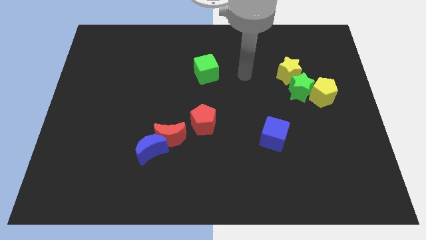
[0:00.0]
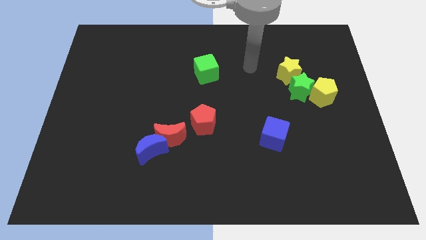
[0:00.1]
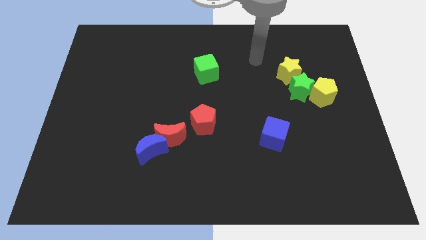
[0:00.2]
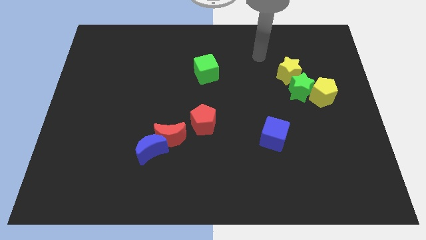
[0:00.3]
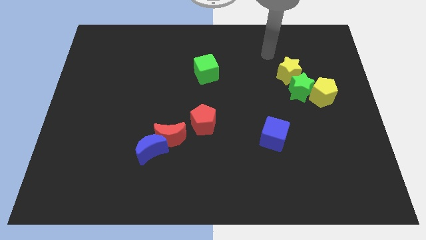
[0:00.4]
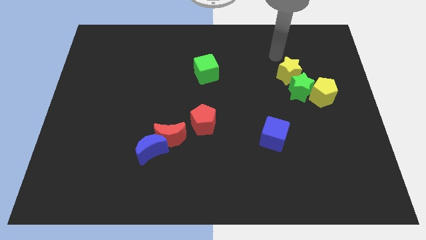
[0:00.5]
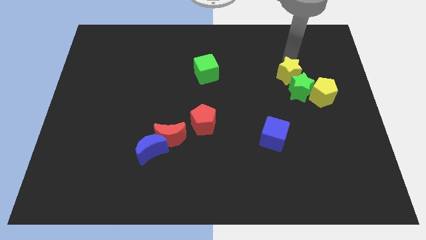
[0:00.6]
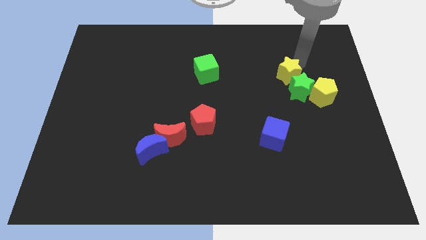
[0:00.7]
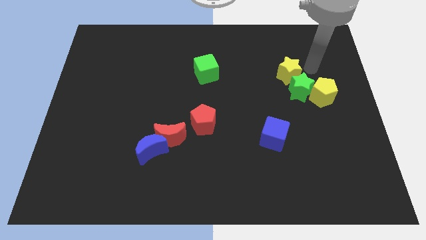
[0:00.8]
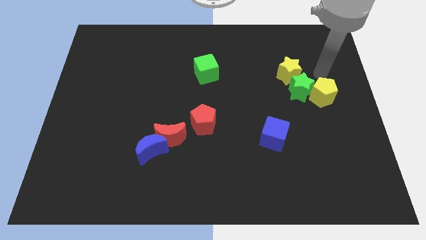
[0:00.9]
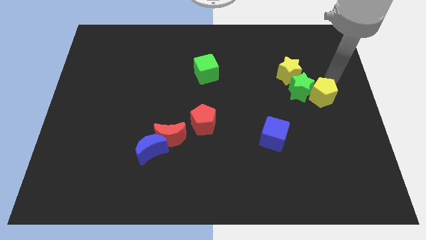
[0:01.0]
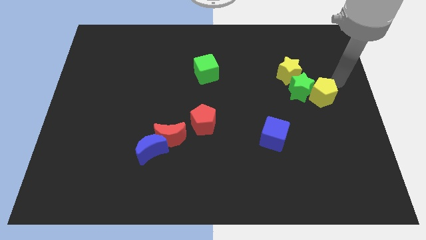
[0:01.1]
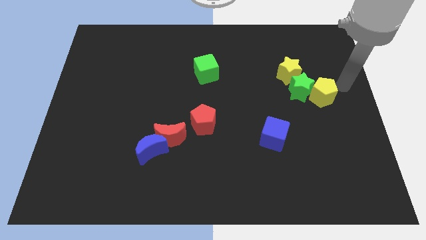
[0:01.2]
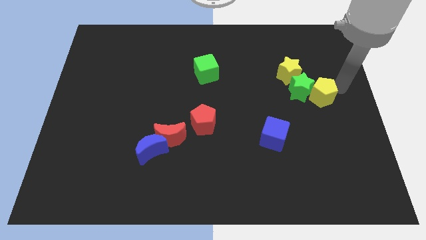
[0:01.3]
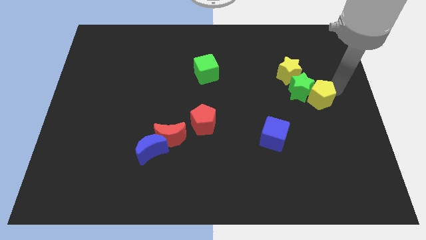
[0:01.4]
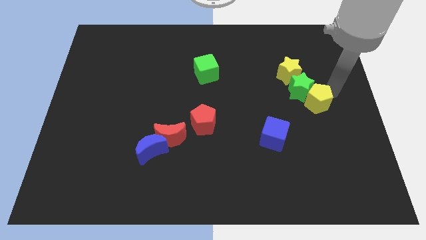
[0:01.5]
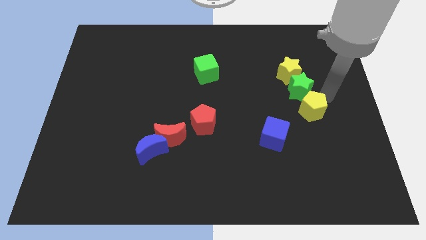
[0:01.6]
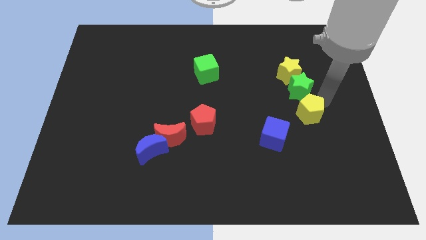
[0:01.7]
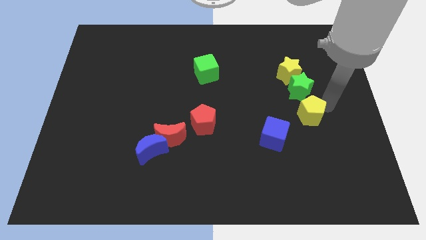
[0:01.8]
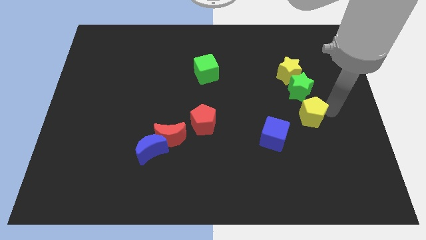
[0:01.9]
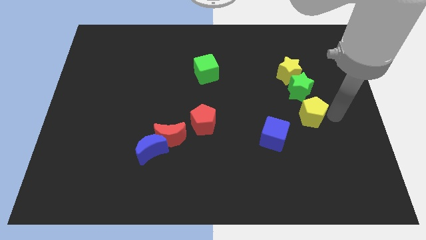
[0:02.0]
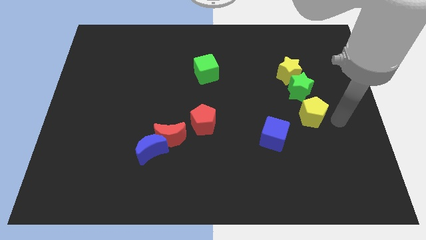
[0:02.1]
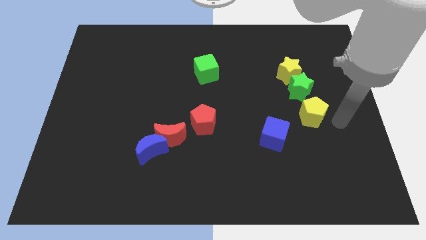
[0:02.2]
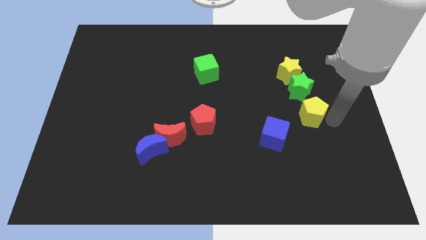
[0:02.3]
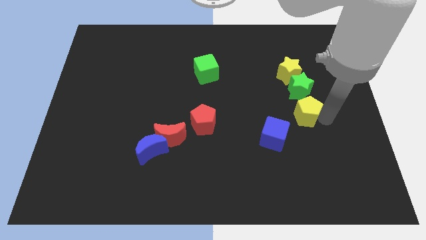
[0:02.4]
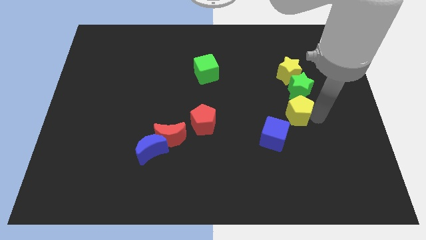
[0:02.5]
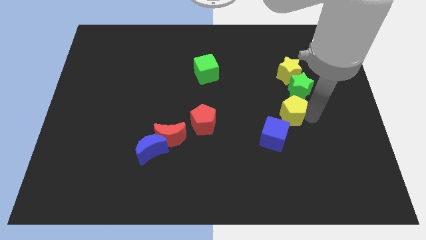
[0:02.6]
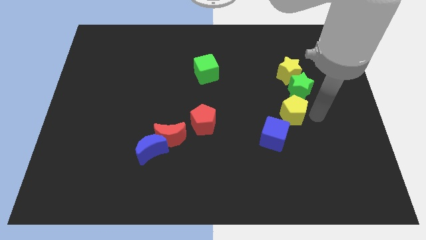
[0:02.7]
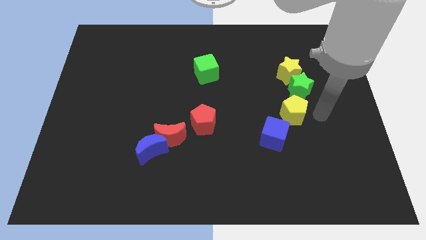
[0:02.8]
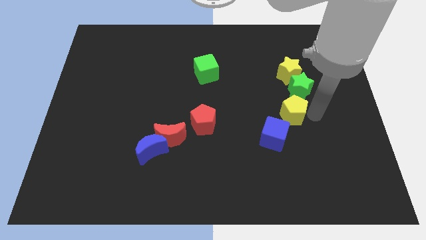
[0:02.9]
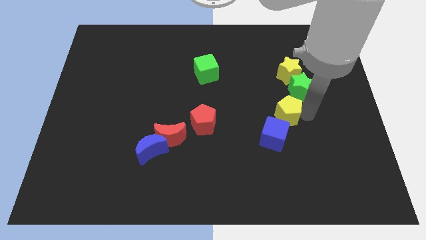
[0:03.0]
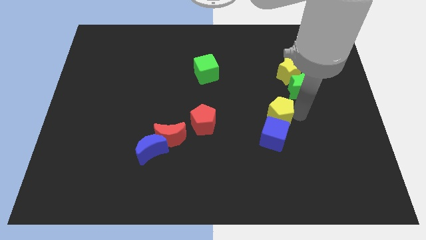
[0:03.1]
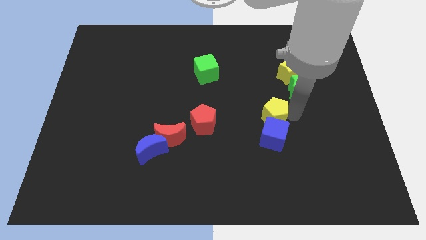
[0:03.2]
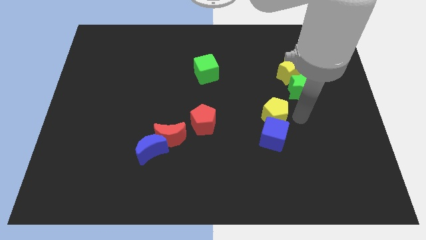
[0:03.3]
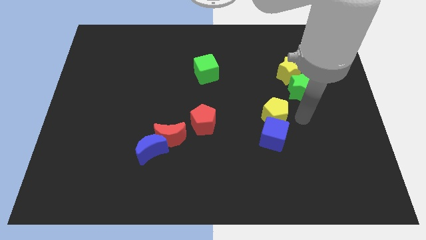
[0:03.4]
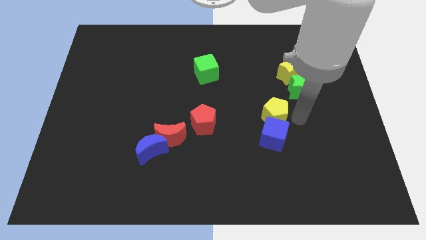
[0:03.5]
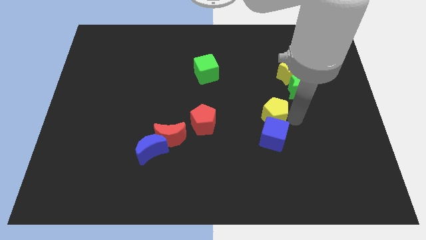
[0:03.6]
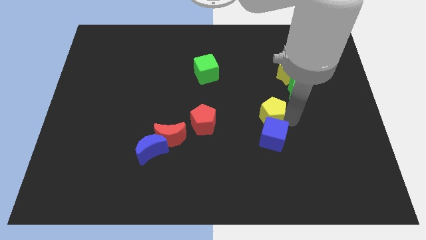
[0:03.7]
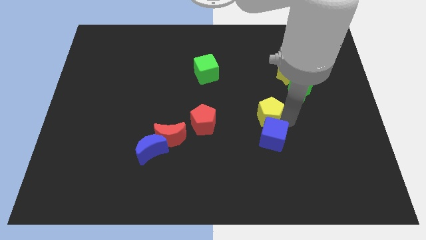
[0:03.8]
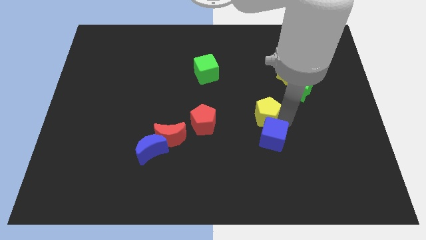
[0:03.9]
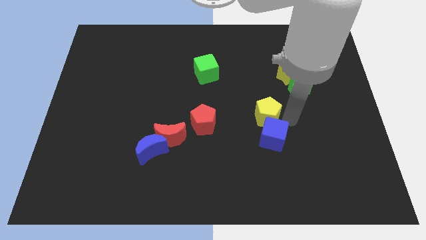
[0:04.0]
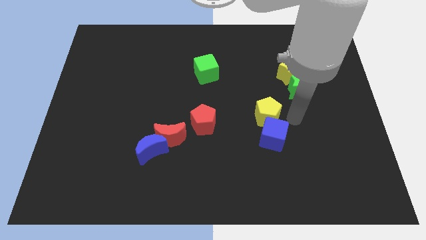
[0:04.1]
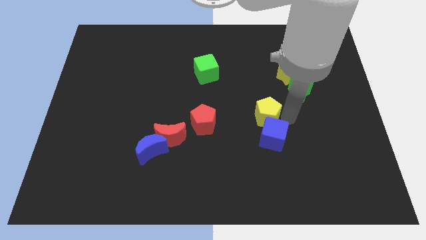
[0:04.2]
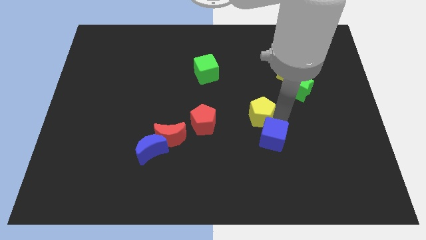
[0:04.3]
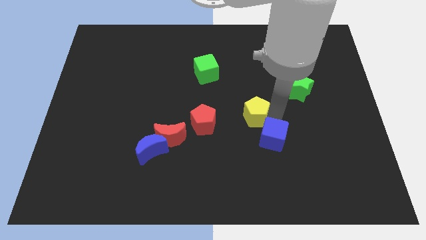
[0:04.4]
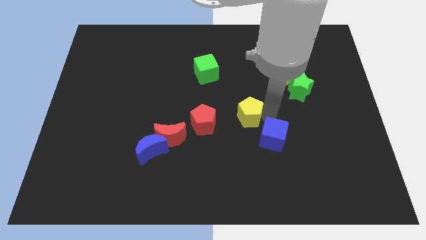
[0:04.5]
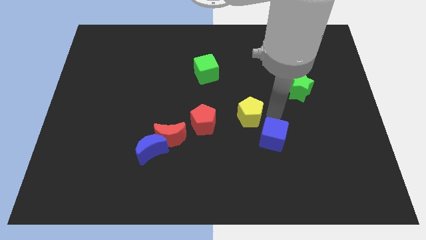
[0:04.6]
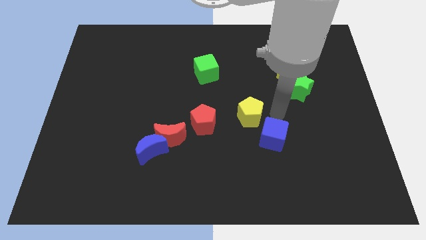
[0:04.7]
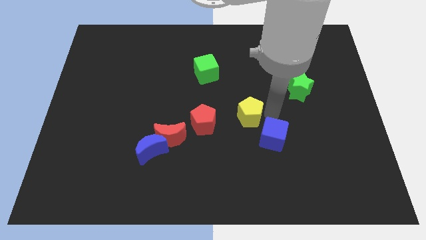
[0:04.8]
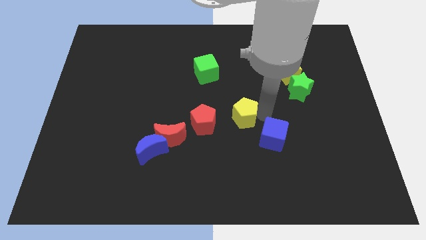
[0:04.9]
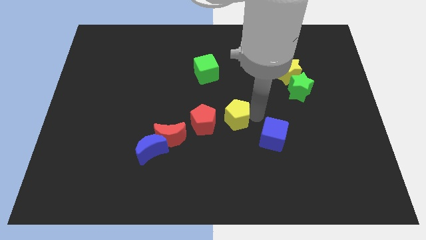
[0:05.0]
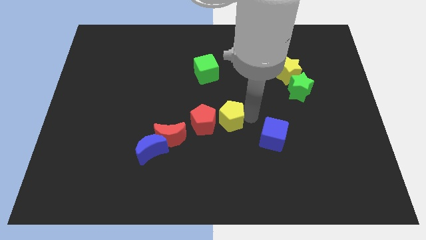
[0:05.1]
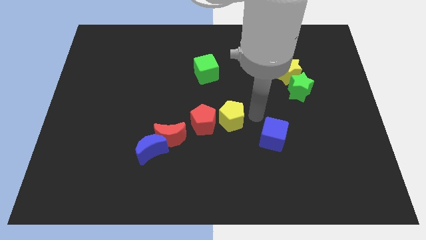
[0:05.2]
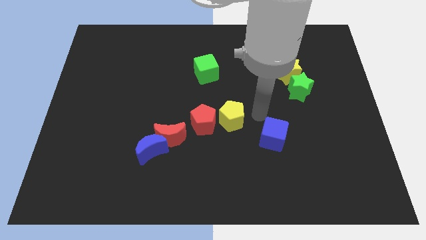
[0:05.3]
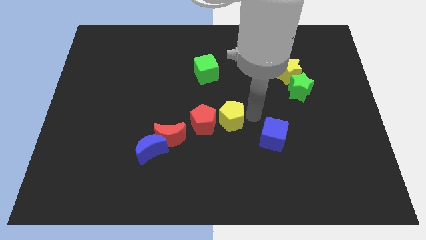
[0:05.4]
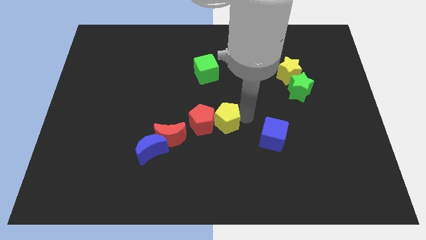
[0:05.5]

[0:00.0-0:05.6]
move the yellow pentagon close to the red pentagon

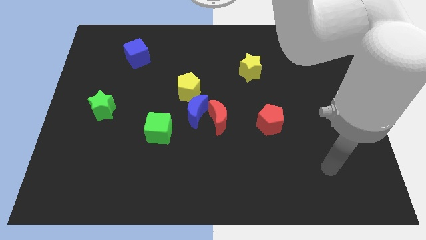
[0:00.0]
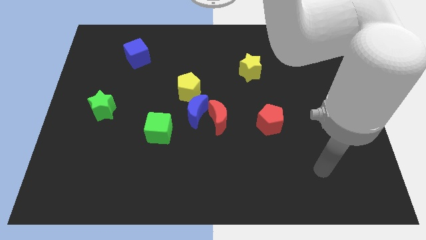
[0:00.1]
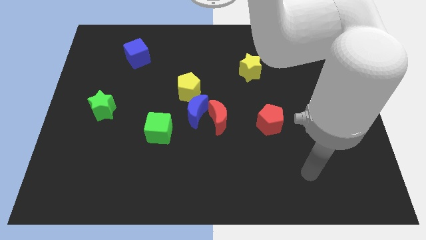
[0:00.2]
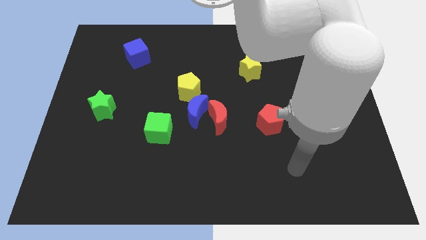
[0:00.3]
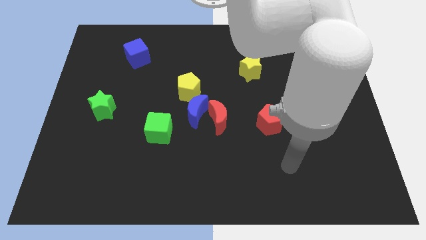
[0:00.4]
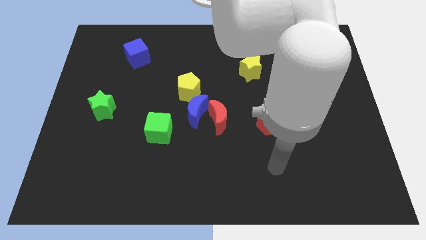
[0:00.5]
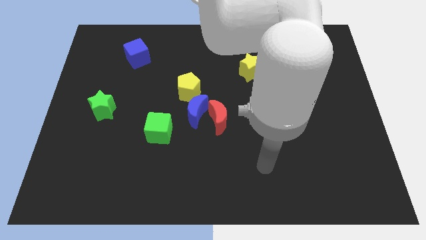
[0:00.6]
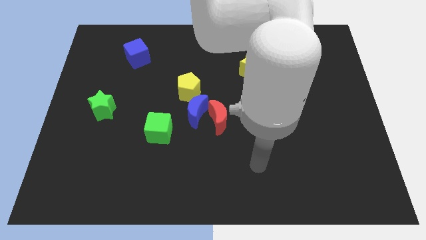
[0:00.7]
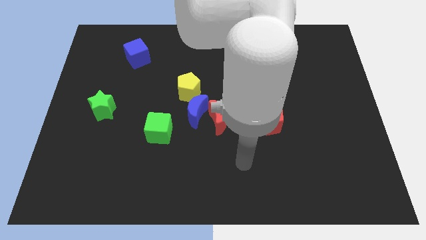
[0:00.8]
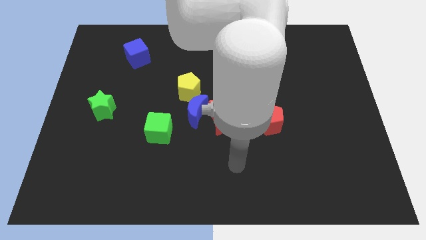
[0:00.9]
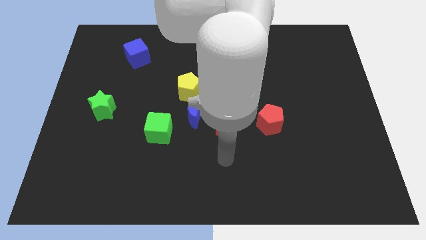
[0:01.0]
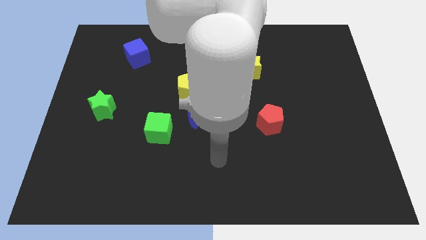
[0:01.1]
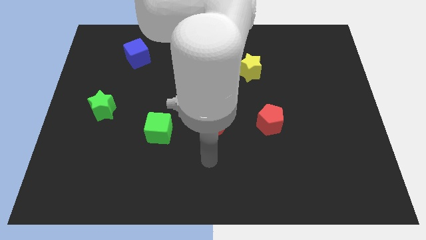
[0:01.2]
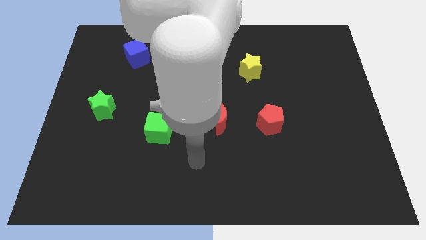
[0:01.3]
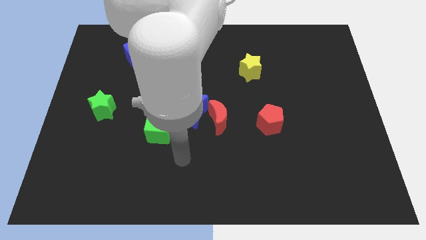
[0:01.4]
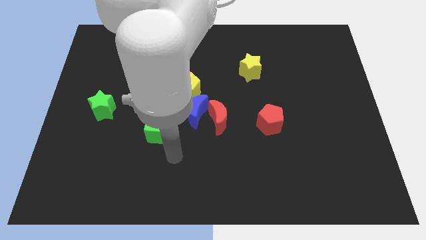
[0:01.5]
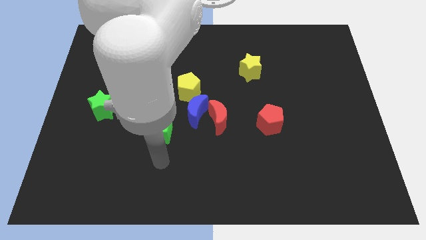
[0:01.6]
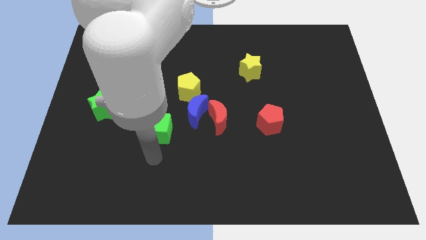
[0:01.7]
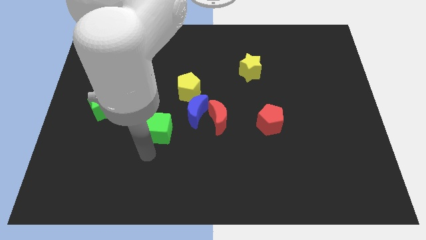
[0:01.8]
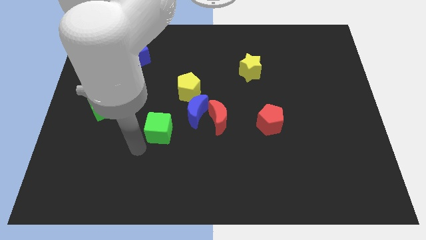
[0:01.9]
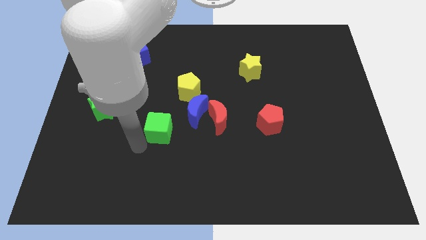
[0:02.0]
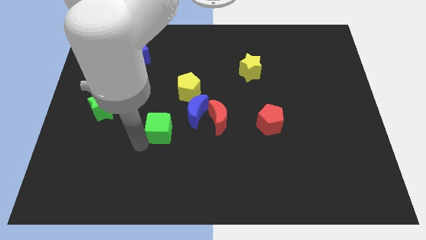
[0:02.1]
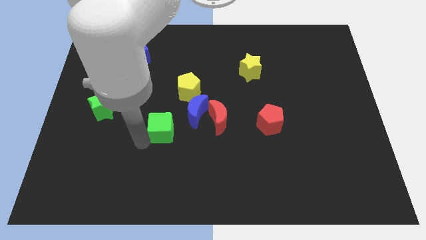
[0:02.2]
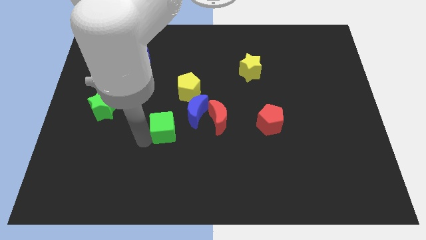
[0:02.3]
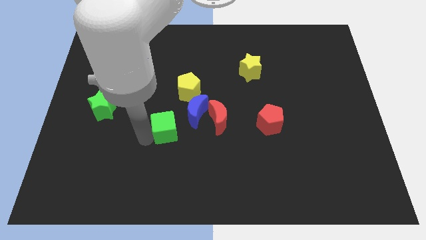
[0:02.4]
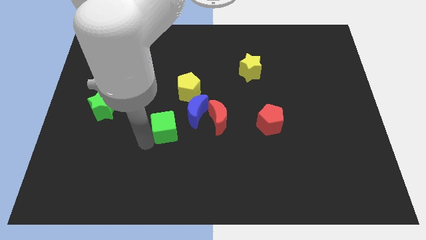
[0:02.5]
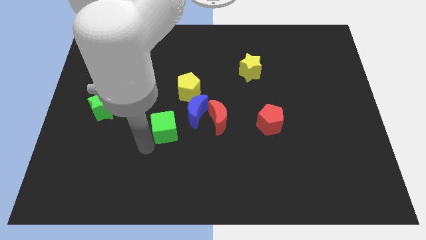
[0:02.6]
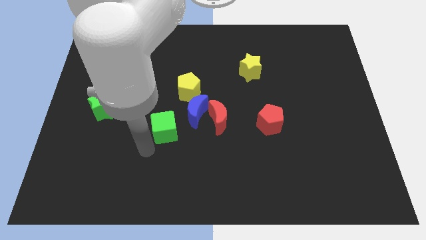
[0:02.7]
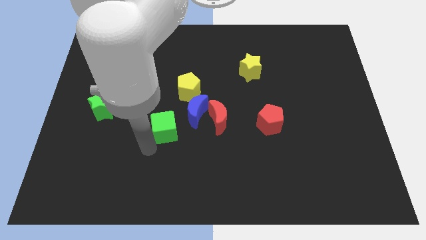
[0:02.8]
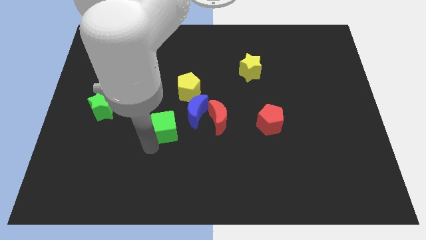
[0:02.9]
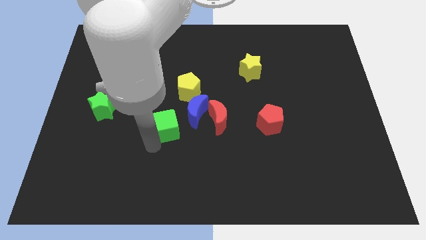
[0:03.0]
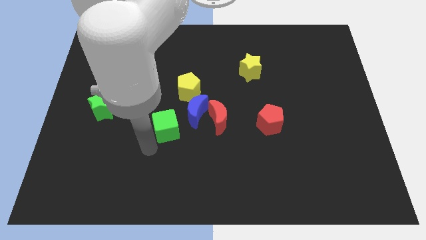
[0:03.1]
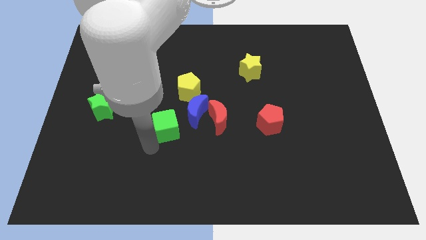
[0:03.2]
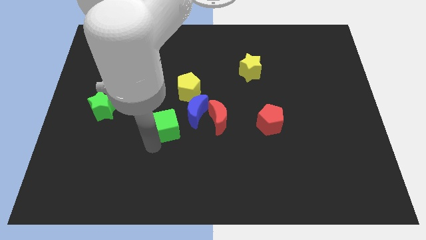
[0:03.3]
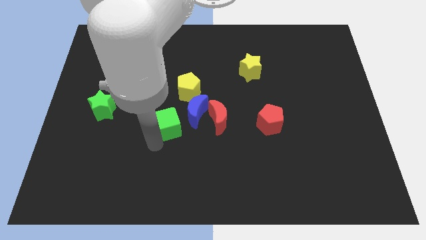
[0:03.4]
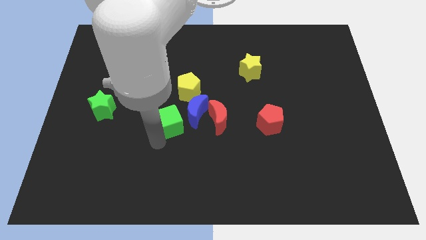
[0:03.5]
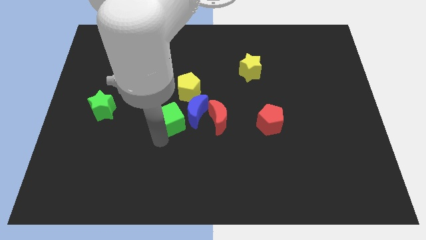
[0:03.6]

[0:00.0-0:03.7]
move the green cube towards the blue moon
